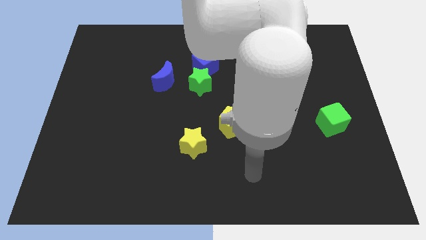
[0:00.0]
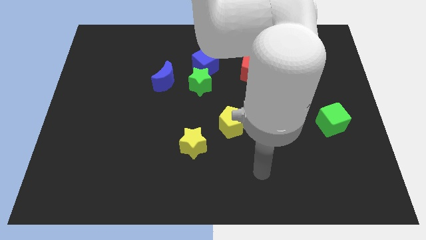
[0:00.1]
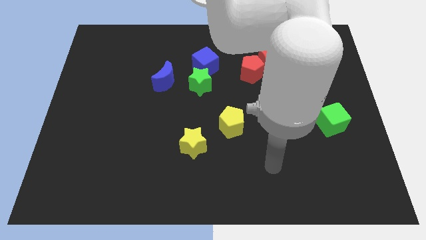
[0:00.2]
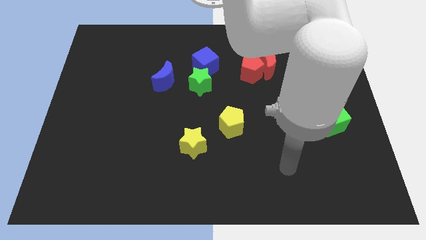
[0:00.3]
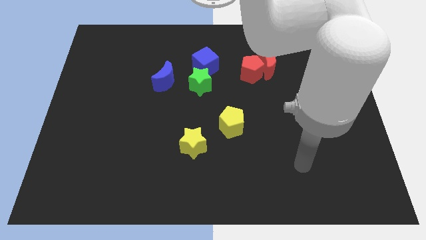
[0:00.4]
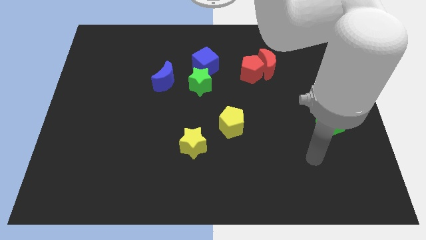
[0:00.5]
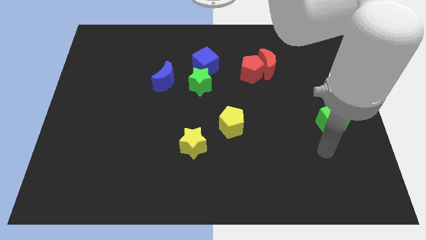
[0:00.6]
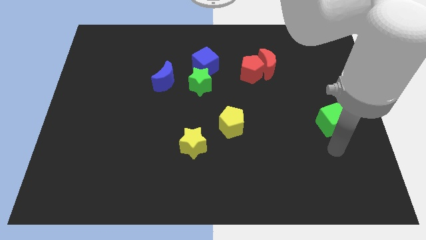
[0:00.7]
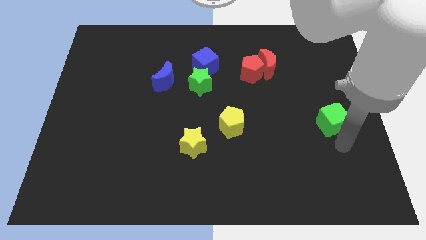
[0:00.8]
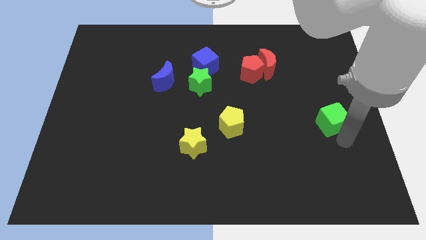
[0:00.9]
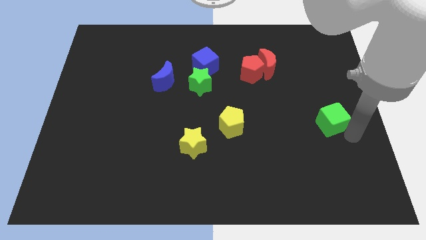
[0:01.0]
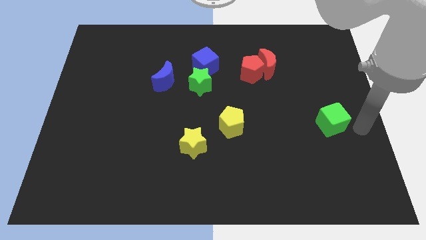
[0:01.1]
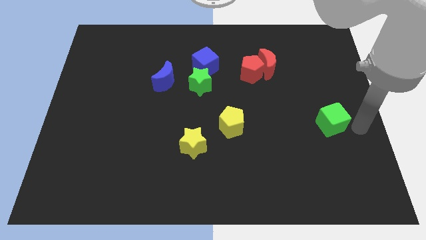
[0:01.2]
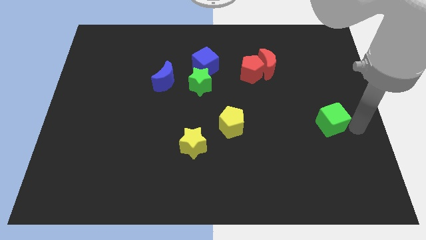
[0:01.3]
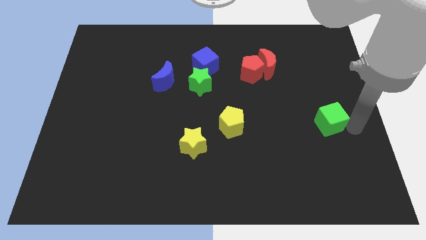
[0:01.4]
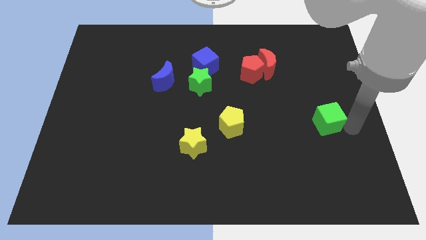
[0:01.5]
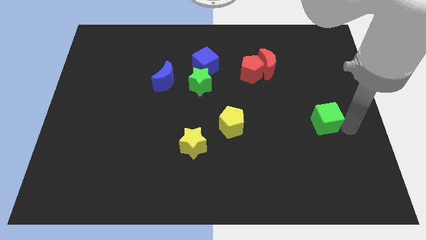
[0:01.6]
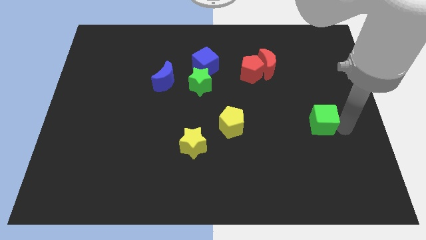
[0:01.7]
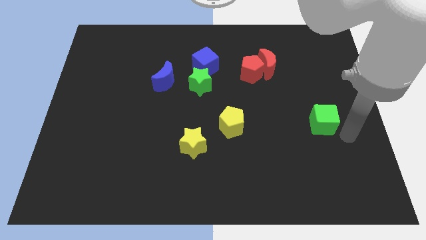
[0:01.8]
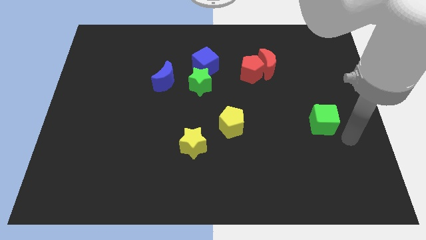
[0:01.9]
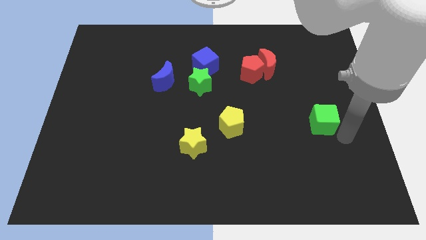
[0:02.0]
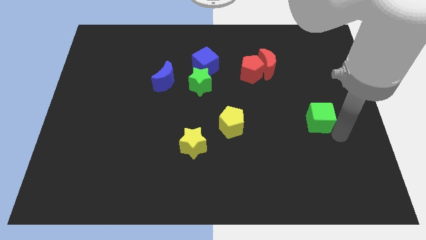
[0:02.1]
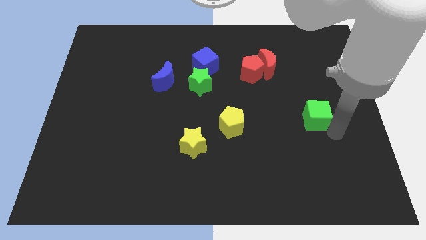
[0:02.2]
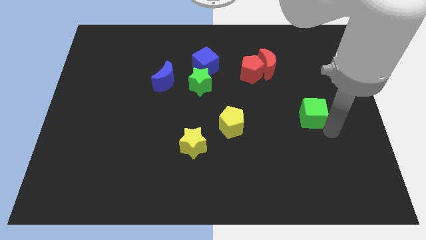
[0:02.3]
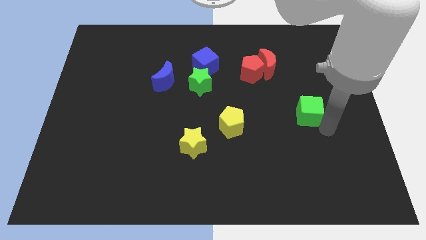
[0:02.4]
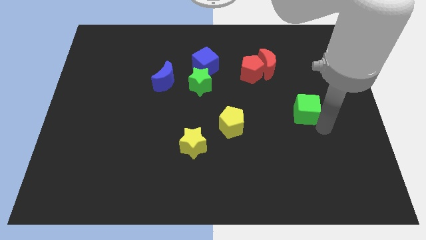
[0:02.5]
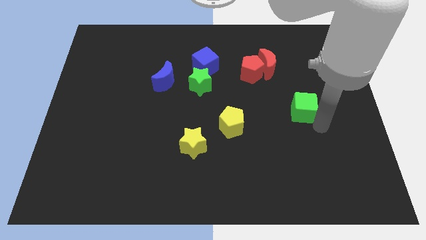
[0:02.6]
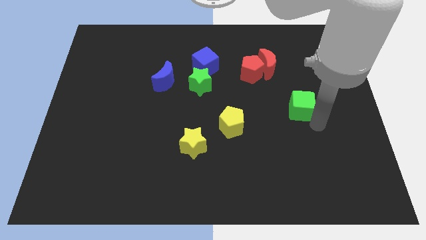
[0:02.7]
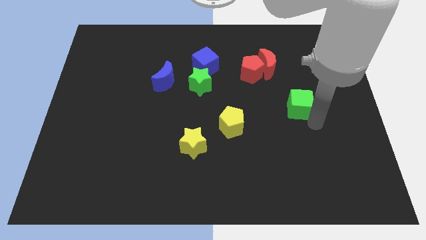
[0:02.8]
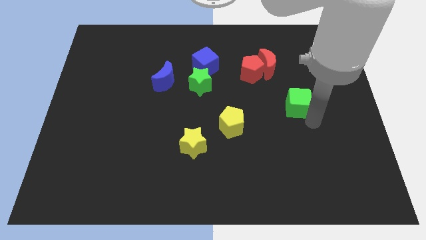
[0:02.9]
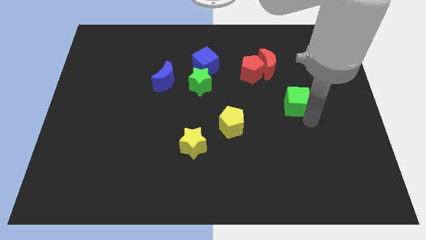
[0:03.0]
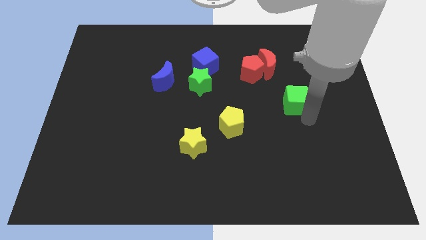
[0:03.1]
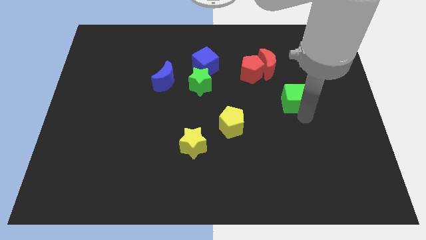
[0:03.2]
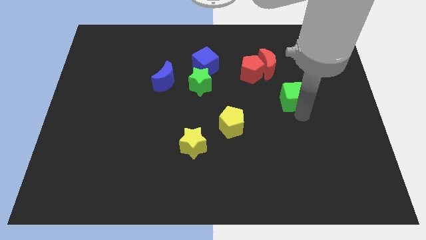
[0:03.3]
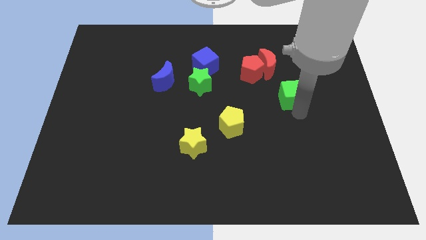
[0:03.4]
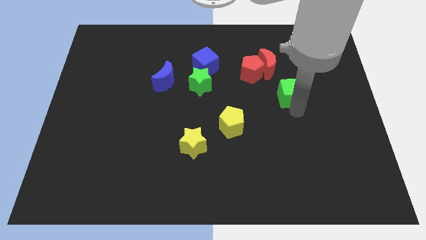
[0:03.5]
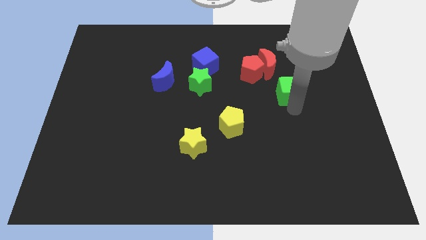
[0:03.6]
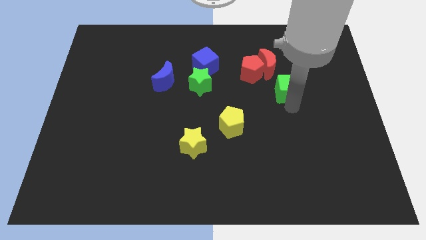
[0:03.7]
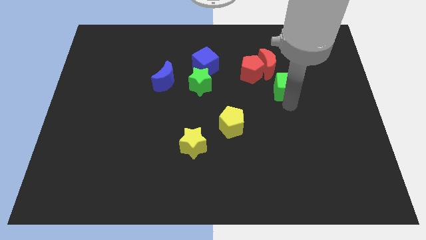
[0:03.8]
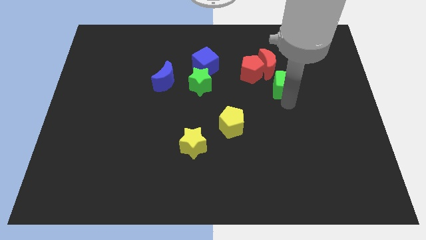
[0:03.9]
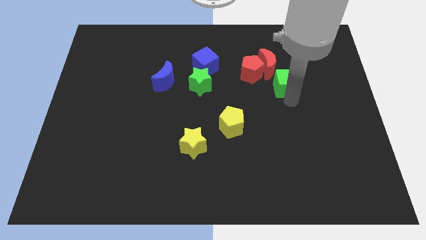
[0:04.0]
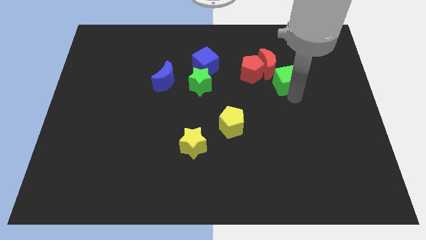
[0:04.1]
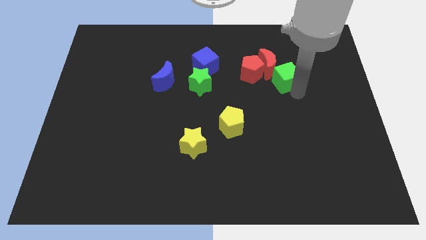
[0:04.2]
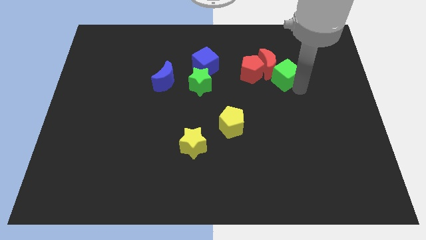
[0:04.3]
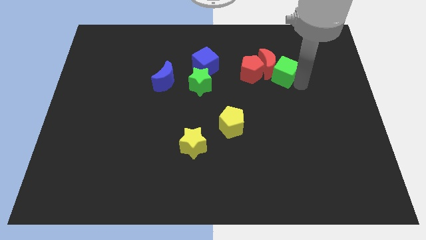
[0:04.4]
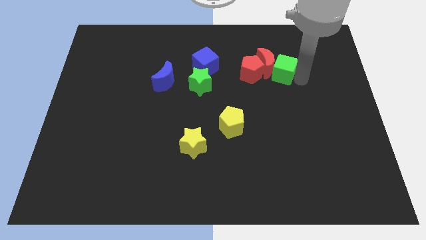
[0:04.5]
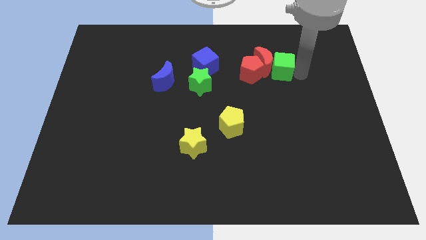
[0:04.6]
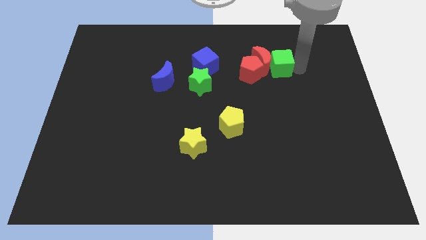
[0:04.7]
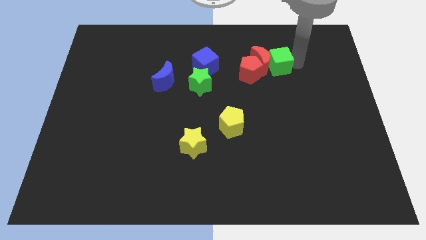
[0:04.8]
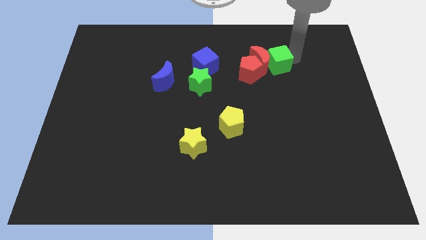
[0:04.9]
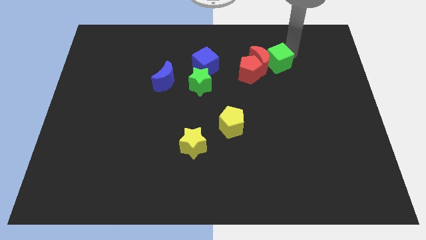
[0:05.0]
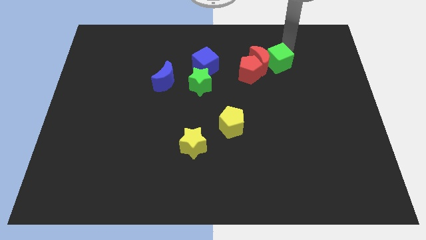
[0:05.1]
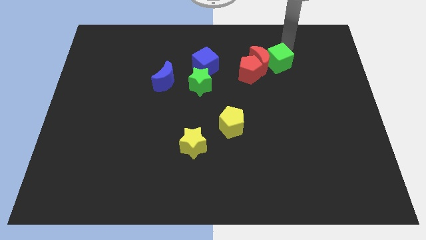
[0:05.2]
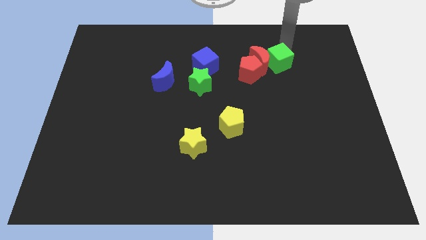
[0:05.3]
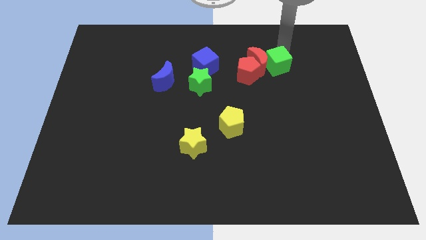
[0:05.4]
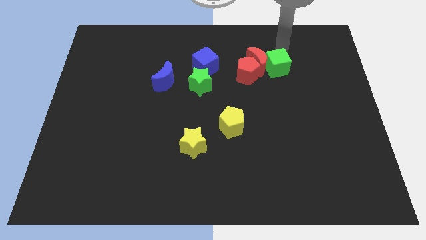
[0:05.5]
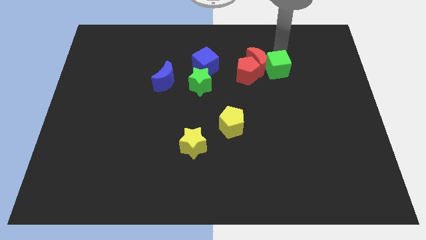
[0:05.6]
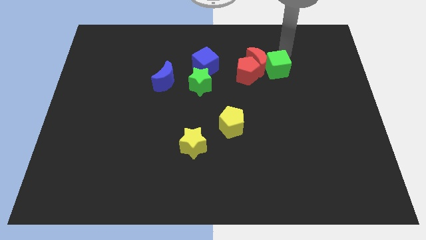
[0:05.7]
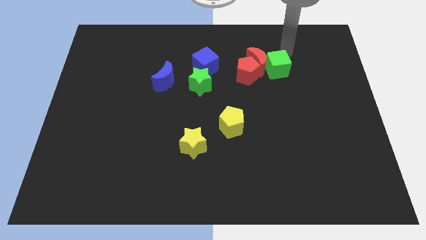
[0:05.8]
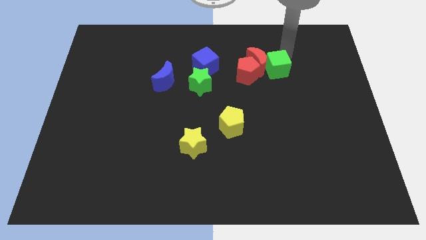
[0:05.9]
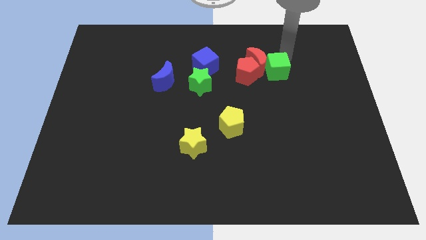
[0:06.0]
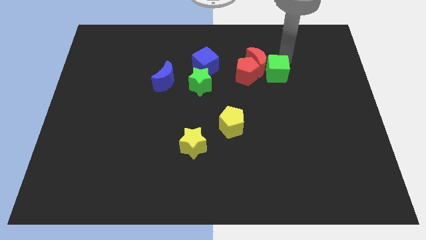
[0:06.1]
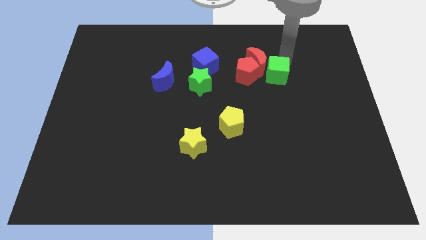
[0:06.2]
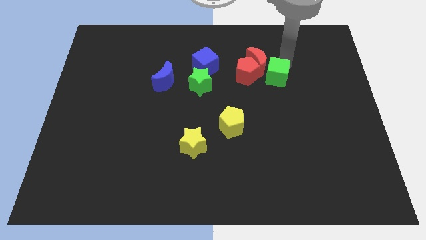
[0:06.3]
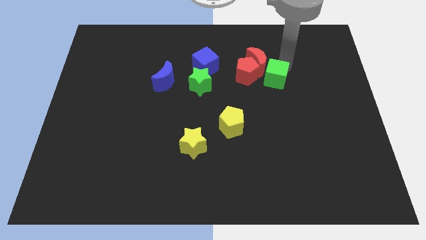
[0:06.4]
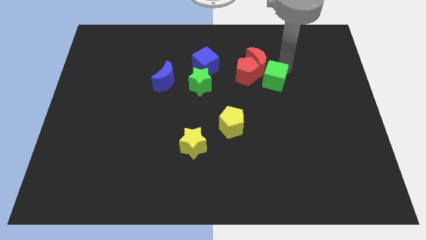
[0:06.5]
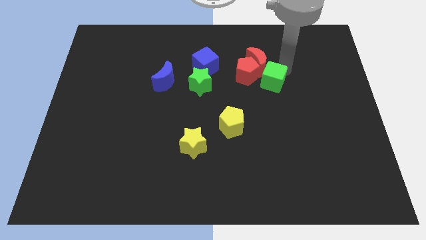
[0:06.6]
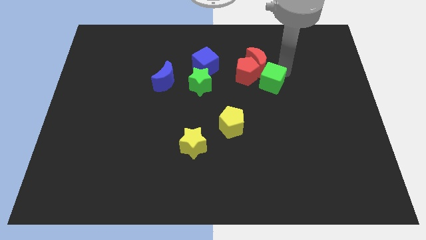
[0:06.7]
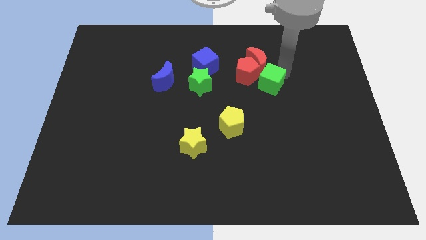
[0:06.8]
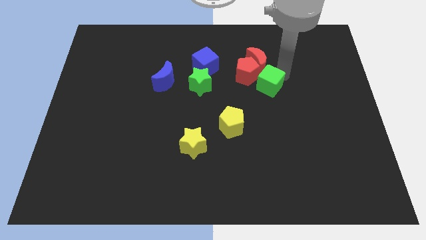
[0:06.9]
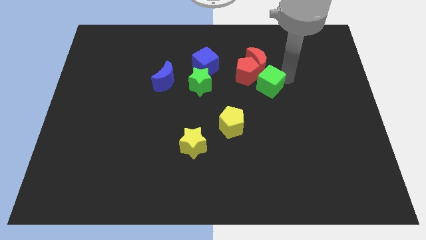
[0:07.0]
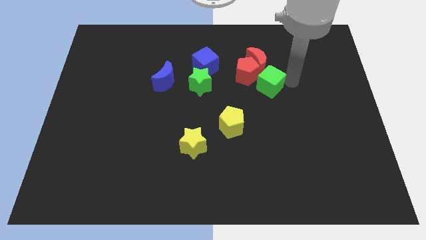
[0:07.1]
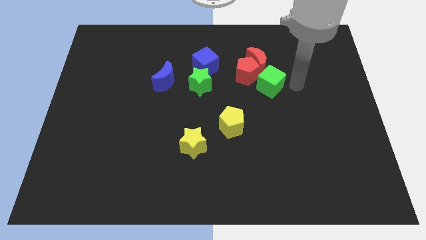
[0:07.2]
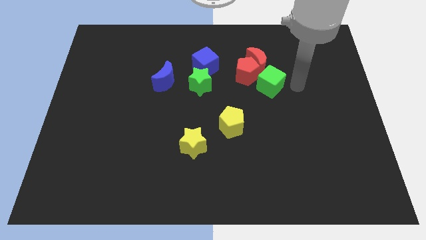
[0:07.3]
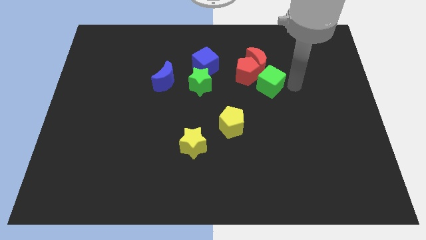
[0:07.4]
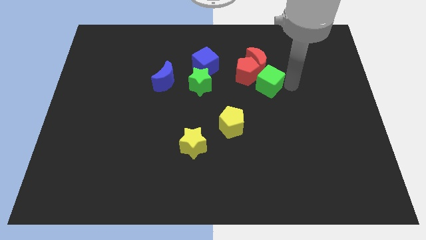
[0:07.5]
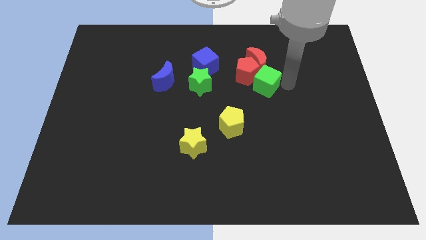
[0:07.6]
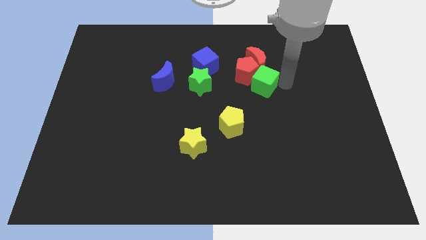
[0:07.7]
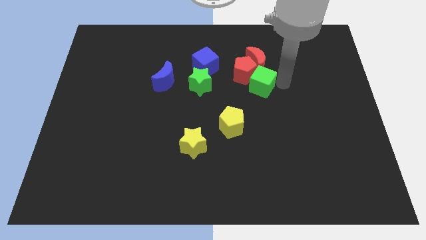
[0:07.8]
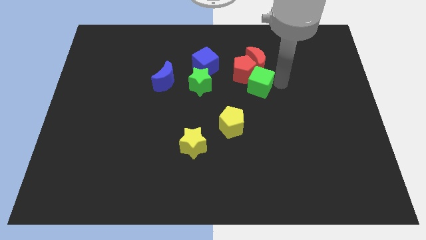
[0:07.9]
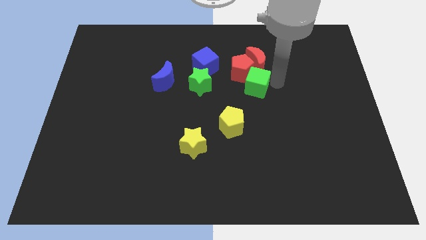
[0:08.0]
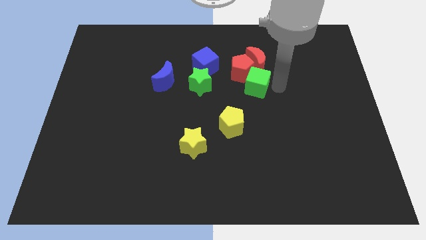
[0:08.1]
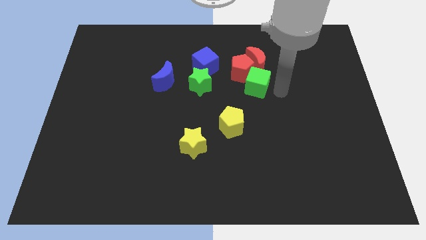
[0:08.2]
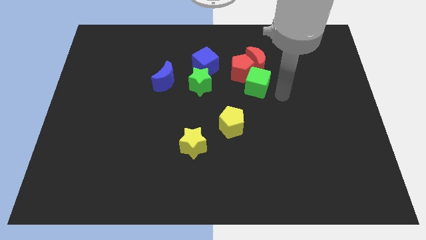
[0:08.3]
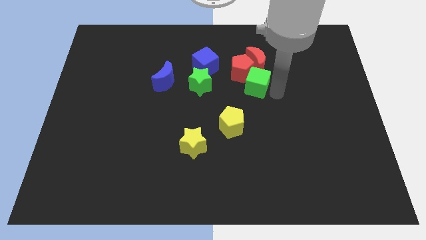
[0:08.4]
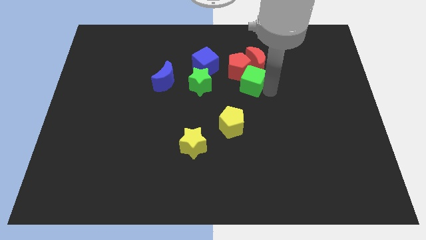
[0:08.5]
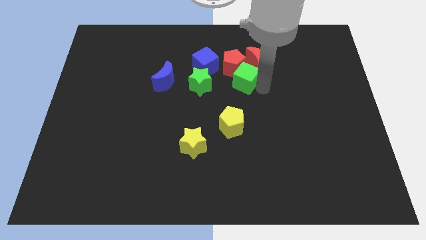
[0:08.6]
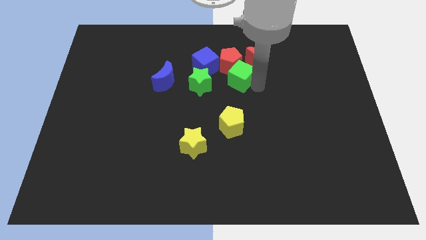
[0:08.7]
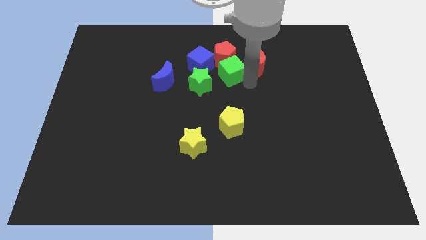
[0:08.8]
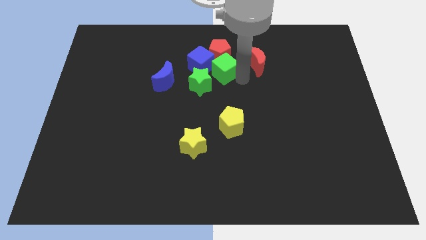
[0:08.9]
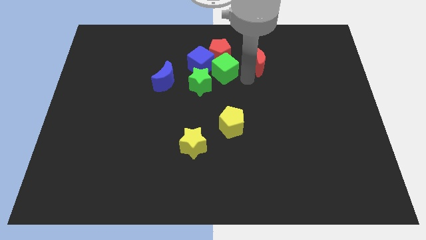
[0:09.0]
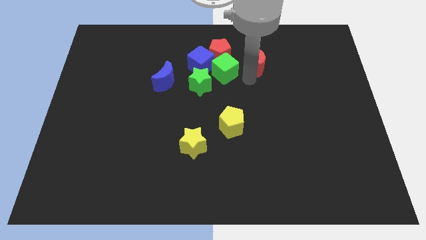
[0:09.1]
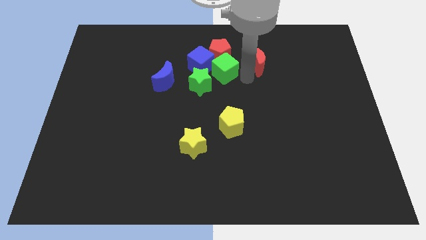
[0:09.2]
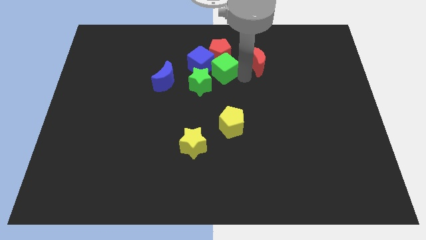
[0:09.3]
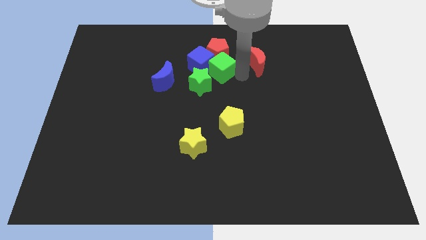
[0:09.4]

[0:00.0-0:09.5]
push the green cube towards the blue cube
